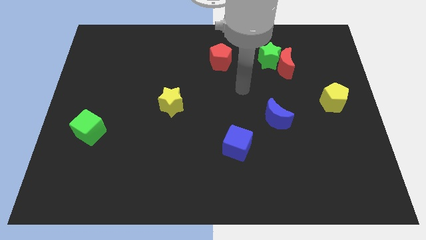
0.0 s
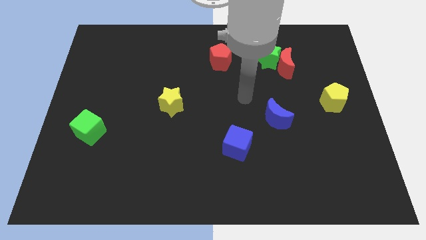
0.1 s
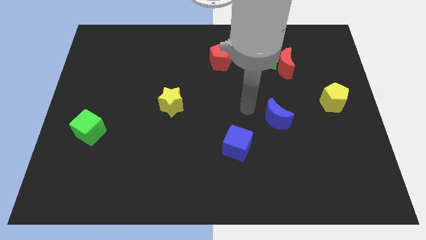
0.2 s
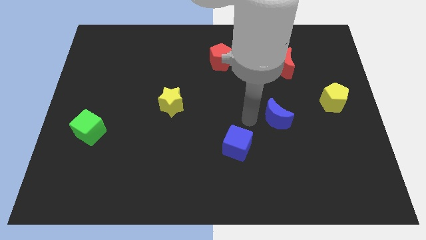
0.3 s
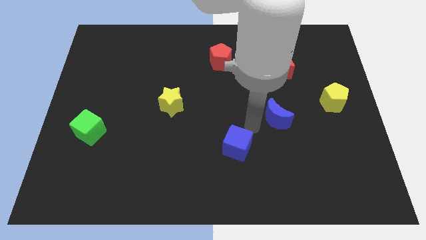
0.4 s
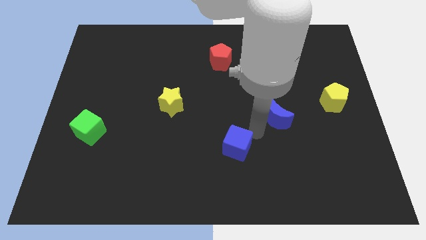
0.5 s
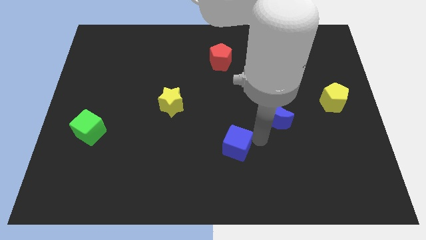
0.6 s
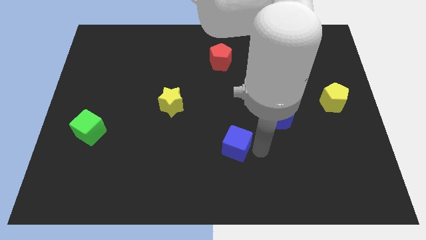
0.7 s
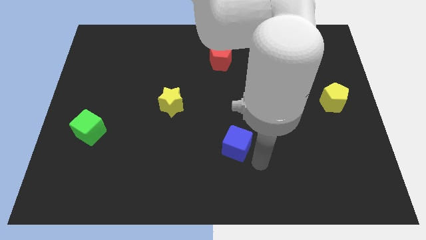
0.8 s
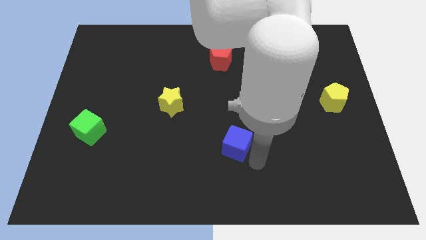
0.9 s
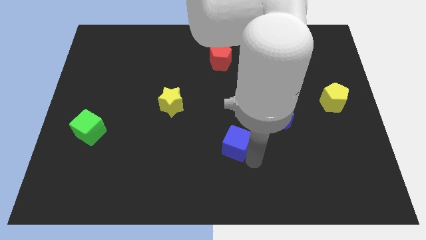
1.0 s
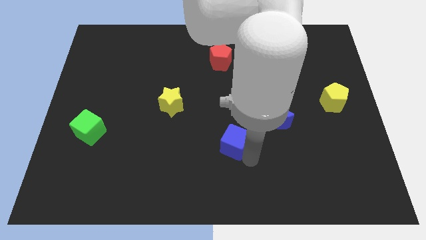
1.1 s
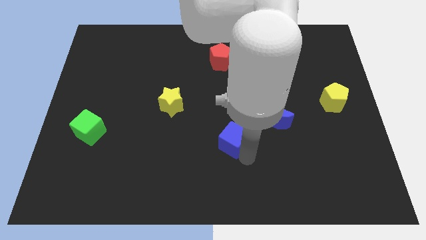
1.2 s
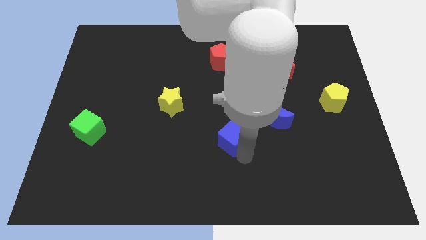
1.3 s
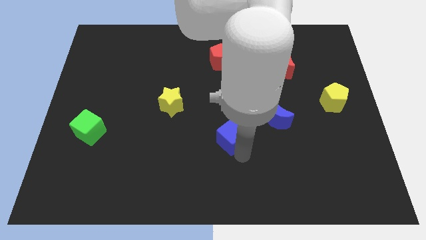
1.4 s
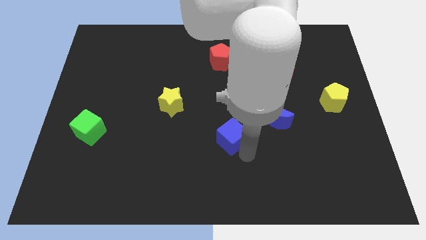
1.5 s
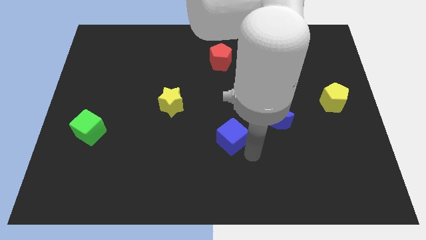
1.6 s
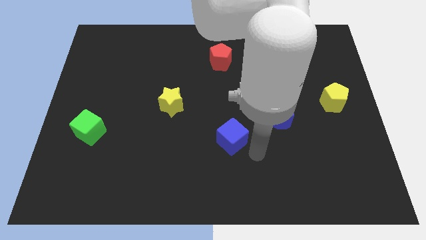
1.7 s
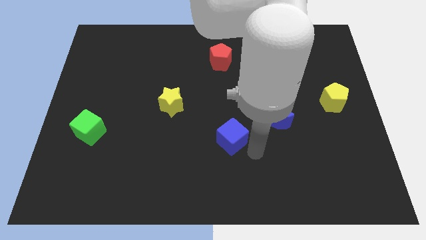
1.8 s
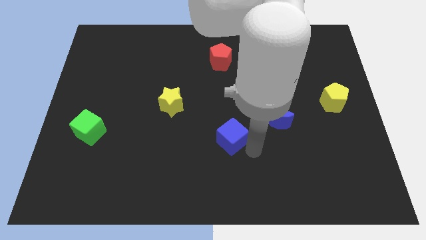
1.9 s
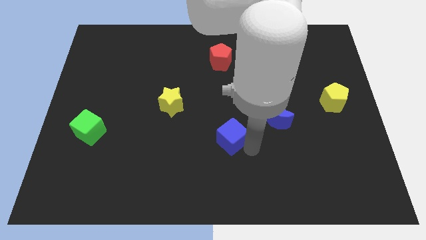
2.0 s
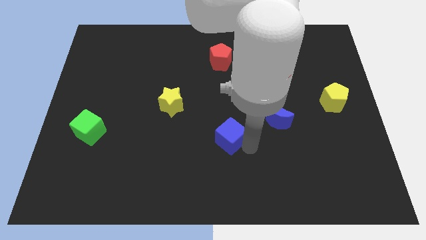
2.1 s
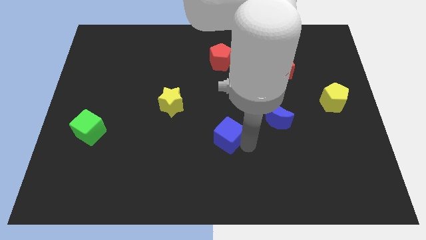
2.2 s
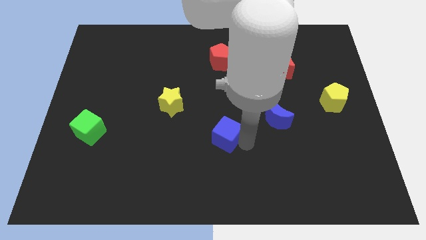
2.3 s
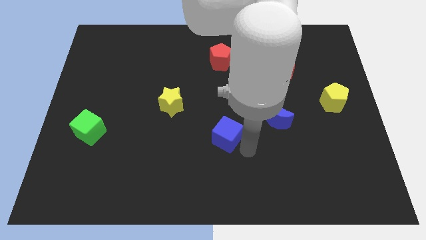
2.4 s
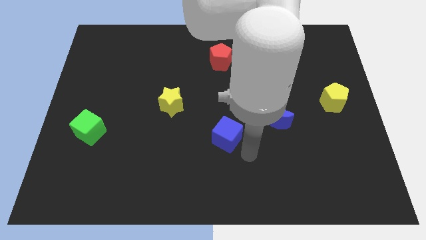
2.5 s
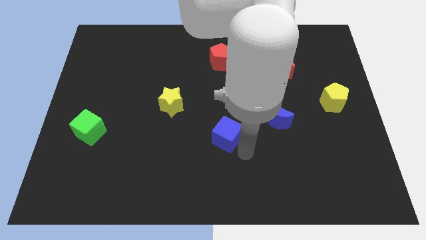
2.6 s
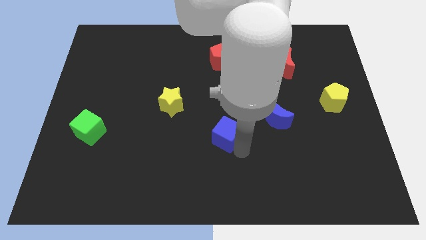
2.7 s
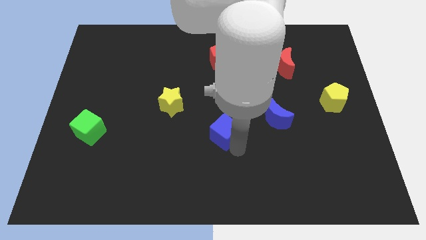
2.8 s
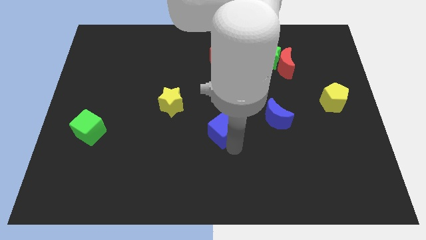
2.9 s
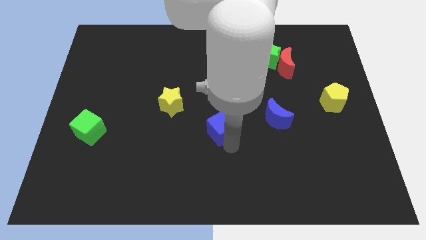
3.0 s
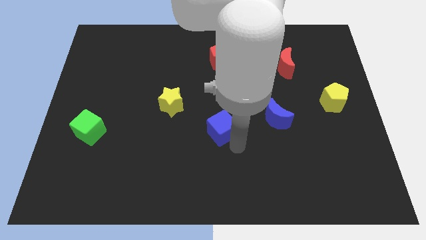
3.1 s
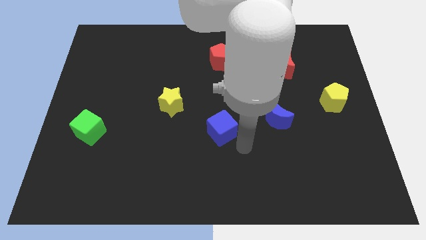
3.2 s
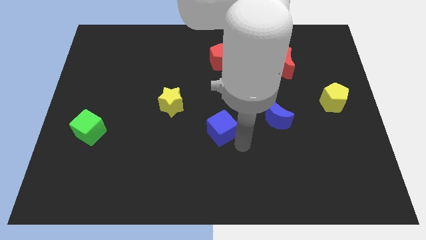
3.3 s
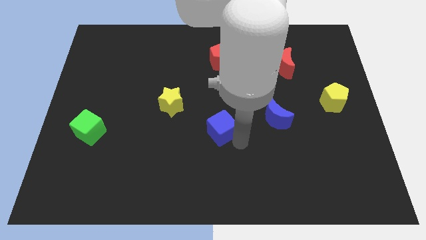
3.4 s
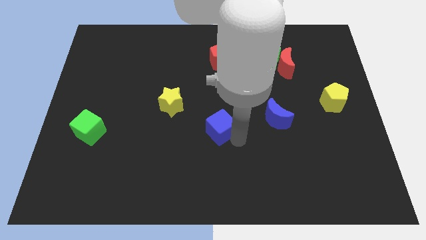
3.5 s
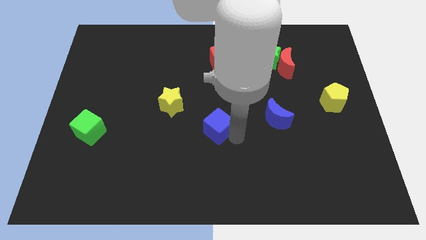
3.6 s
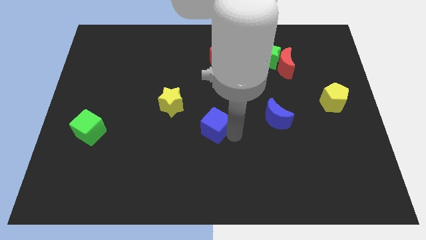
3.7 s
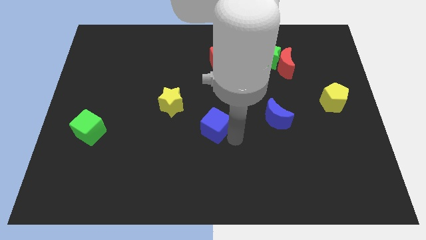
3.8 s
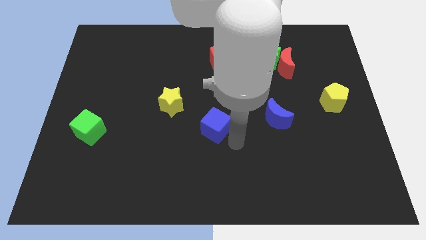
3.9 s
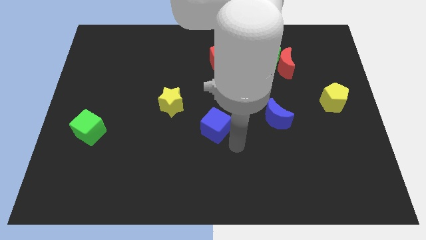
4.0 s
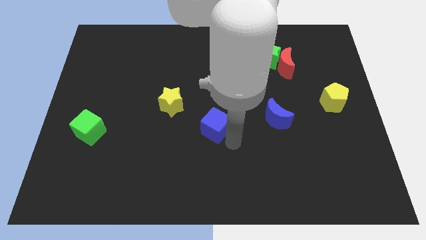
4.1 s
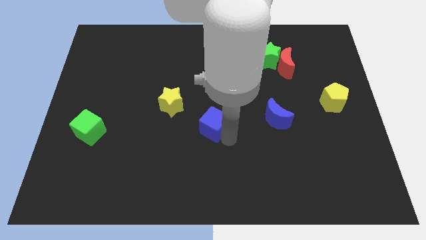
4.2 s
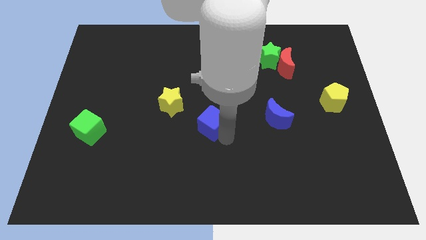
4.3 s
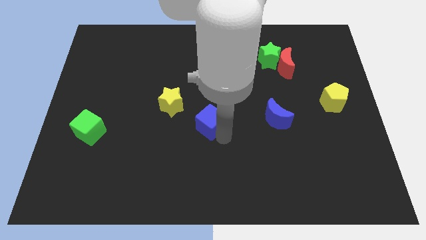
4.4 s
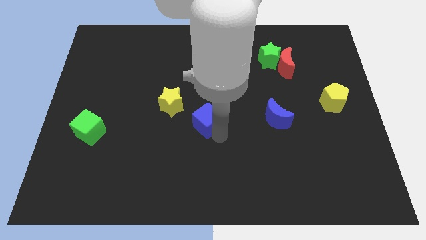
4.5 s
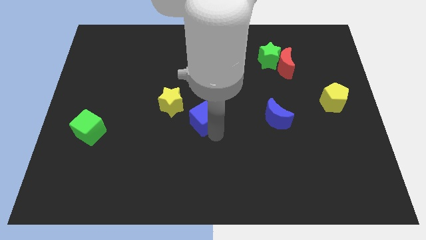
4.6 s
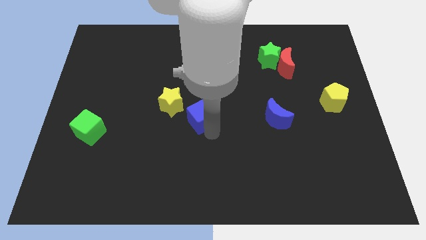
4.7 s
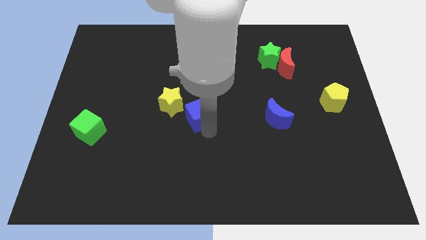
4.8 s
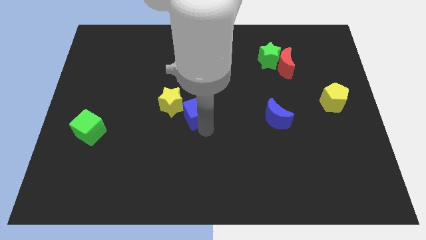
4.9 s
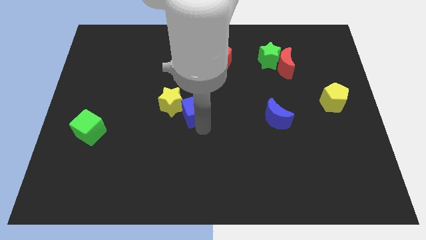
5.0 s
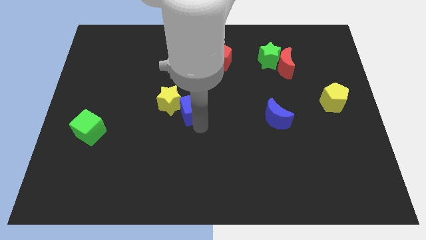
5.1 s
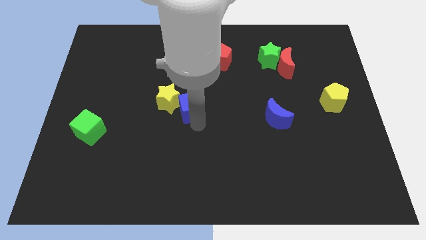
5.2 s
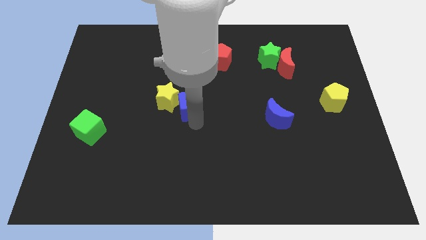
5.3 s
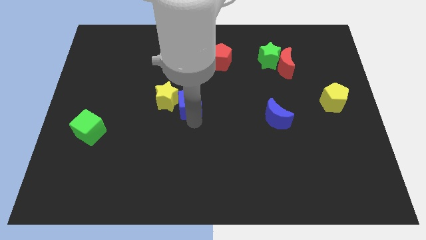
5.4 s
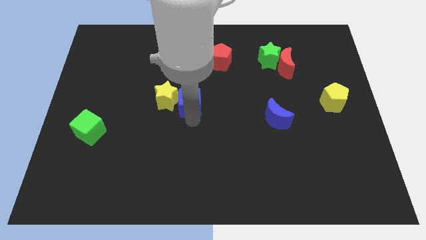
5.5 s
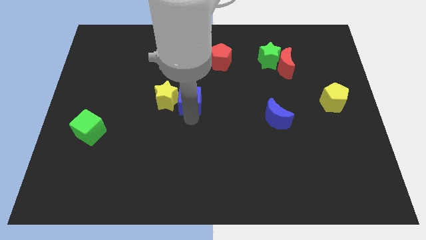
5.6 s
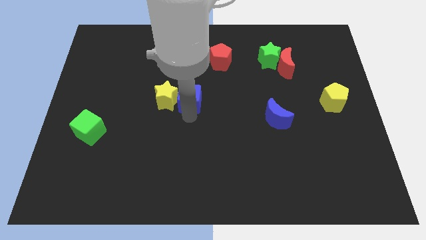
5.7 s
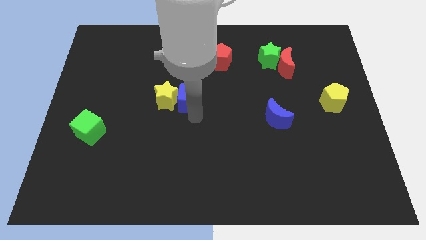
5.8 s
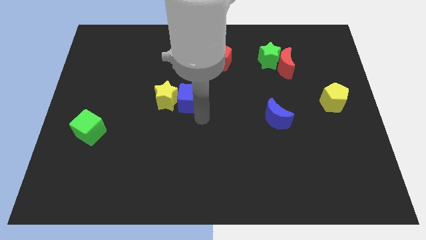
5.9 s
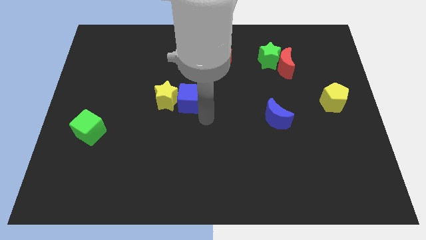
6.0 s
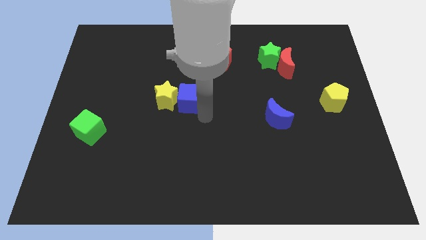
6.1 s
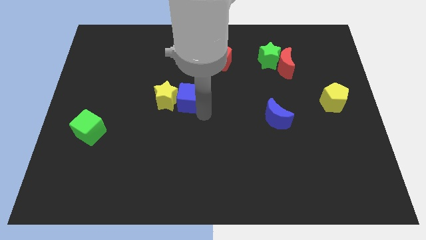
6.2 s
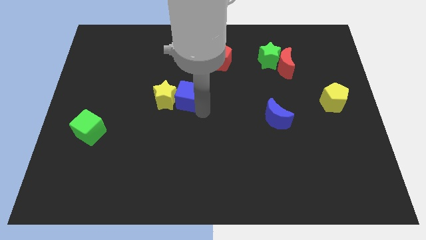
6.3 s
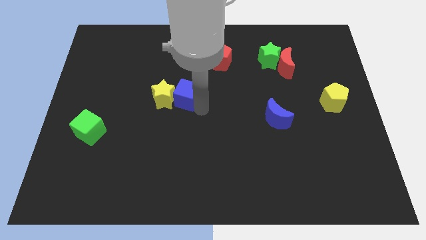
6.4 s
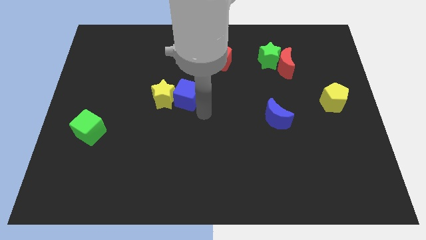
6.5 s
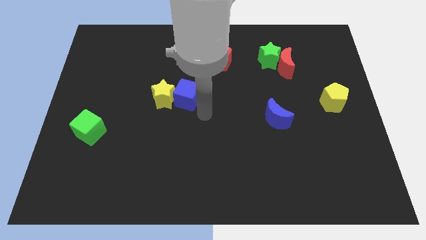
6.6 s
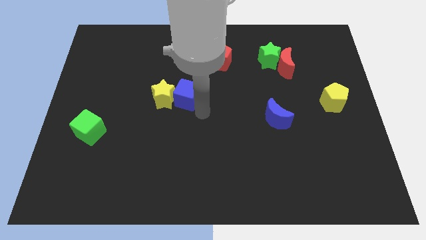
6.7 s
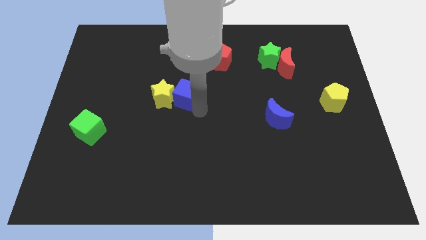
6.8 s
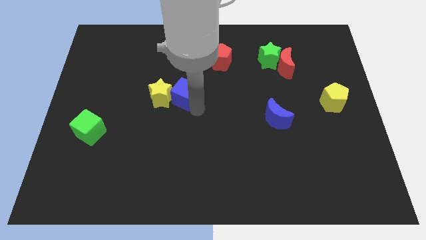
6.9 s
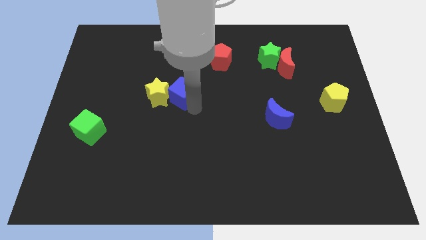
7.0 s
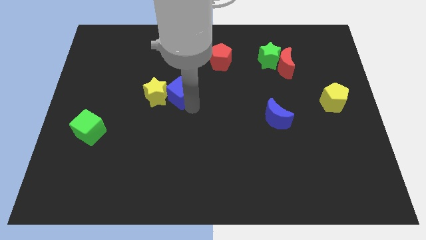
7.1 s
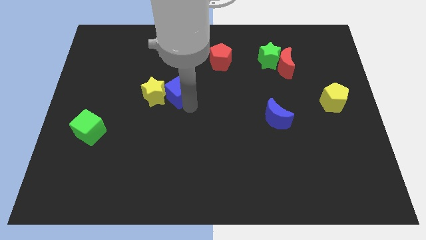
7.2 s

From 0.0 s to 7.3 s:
push the blue cube diagonally upwards and to the left

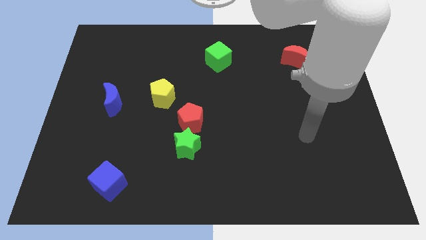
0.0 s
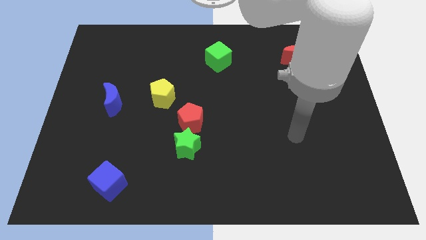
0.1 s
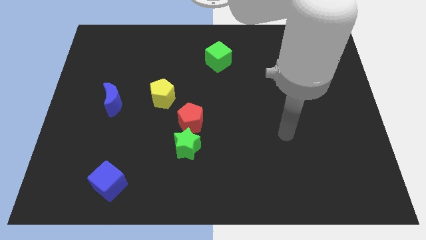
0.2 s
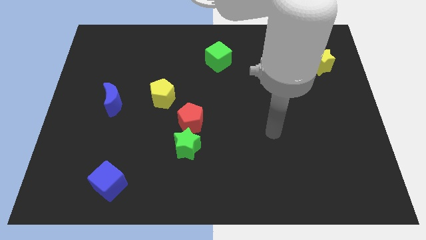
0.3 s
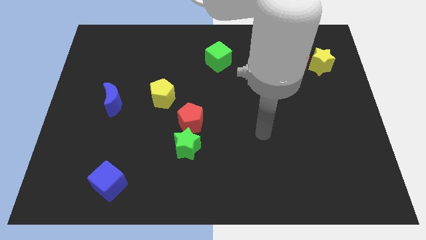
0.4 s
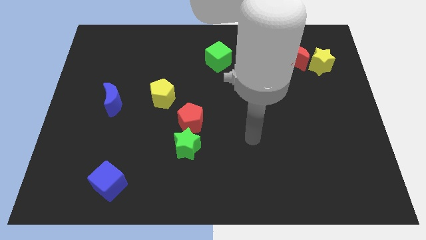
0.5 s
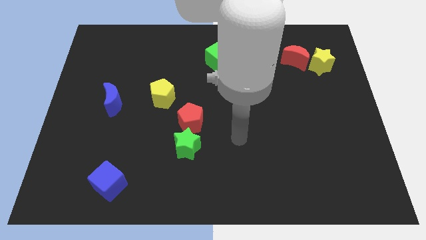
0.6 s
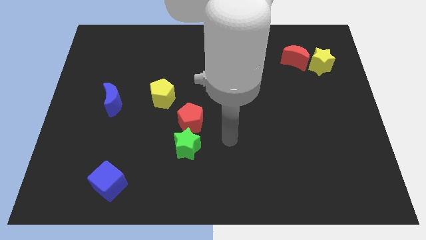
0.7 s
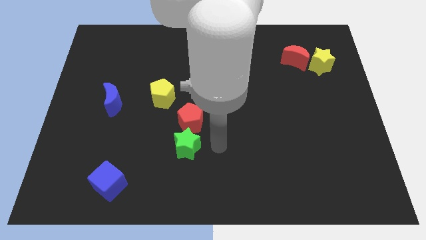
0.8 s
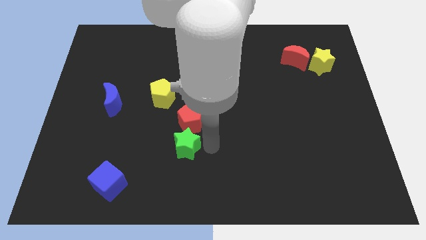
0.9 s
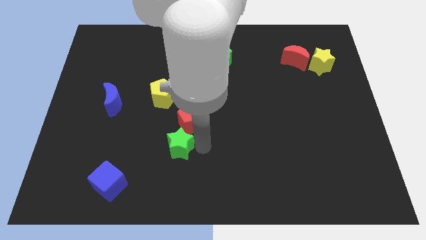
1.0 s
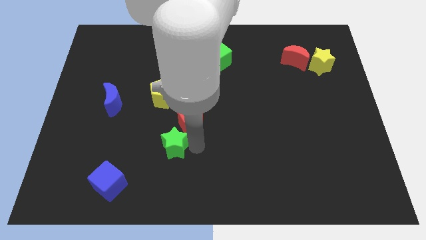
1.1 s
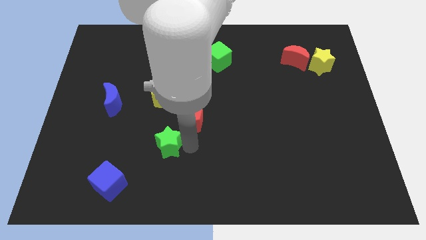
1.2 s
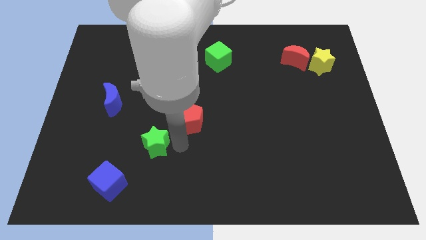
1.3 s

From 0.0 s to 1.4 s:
slightly move the green star left
